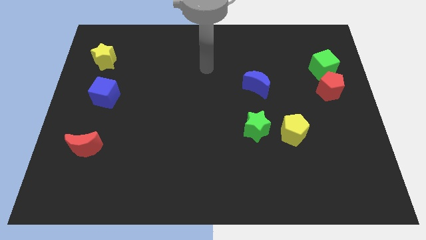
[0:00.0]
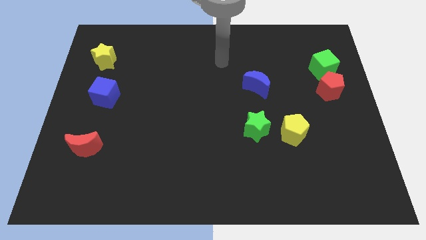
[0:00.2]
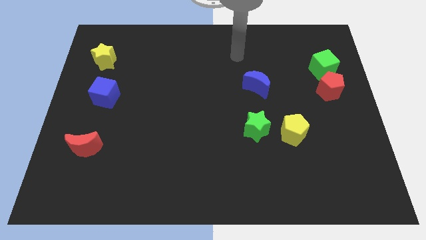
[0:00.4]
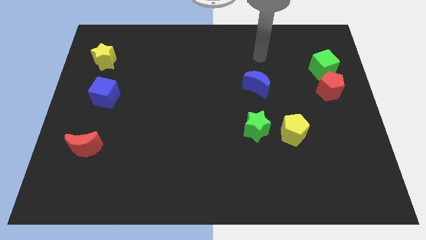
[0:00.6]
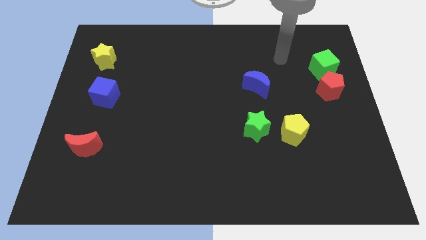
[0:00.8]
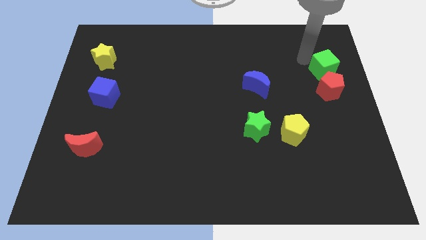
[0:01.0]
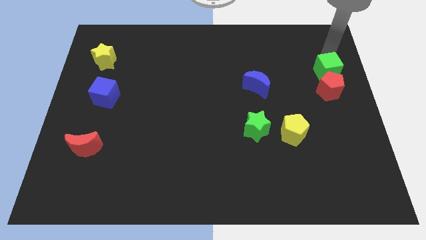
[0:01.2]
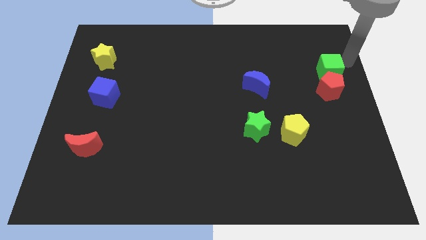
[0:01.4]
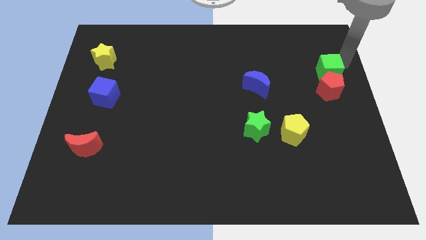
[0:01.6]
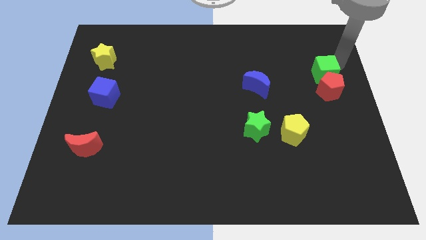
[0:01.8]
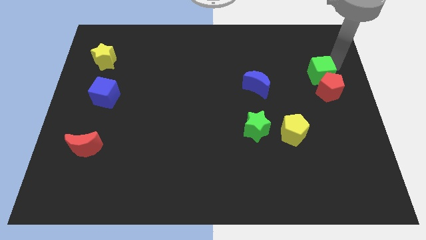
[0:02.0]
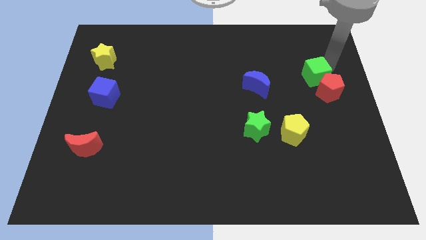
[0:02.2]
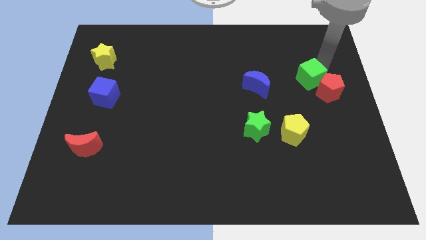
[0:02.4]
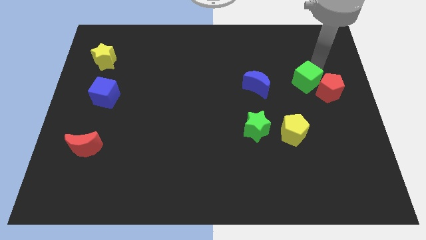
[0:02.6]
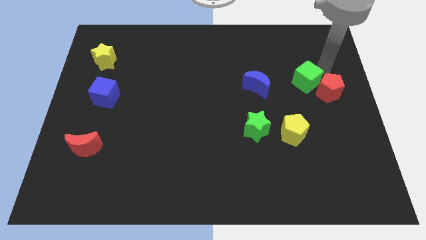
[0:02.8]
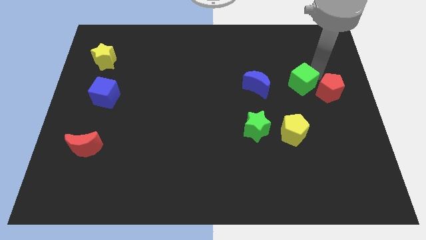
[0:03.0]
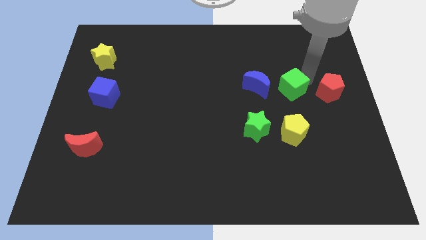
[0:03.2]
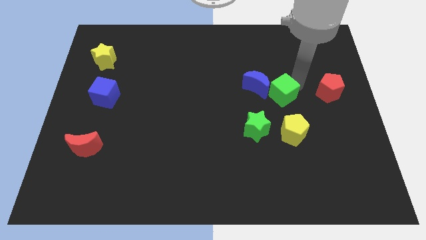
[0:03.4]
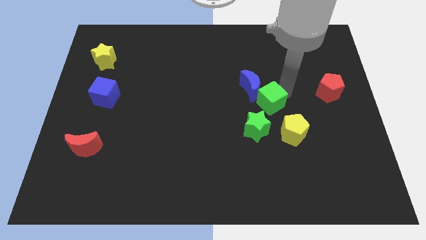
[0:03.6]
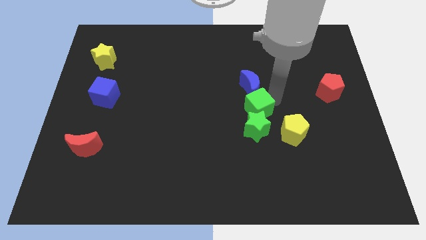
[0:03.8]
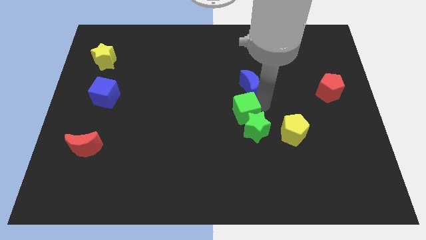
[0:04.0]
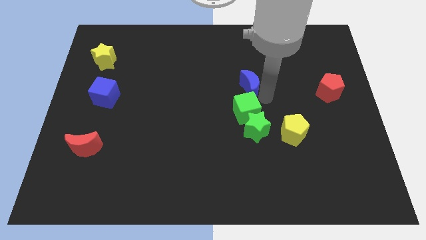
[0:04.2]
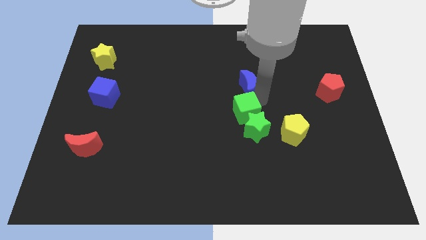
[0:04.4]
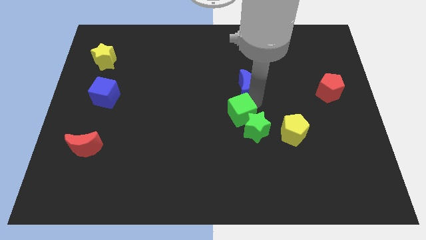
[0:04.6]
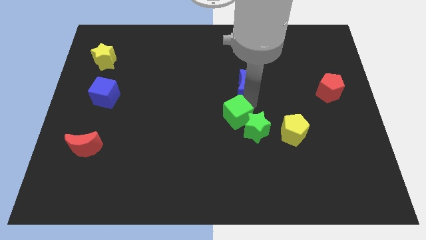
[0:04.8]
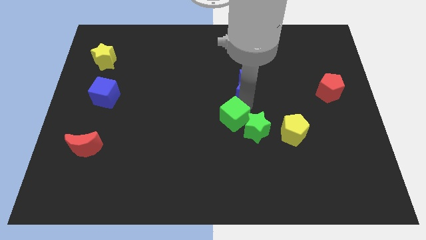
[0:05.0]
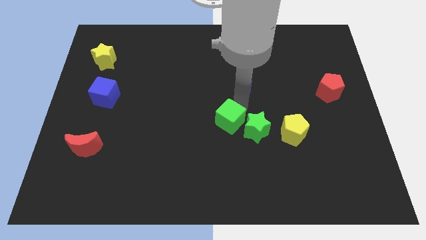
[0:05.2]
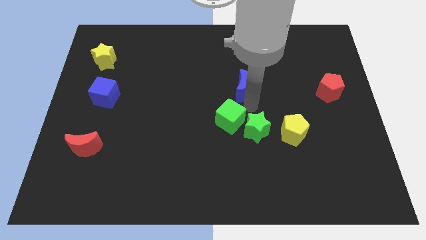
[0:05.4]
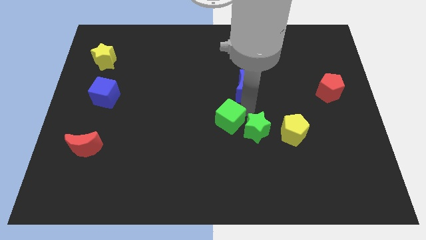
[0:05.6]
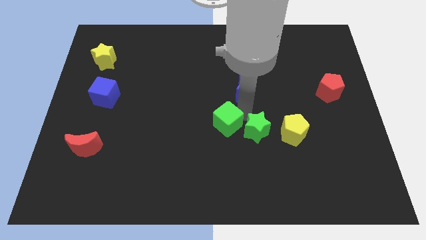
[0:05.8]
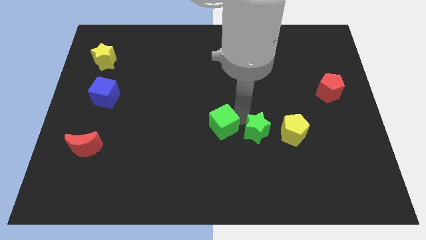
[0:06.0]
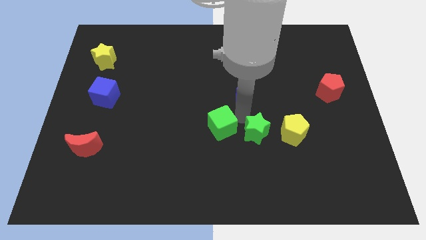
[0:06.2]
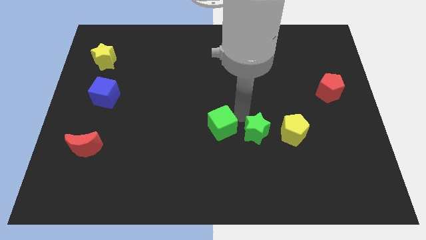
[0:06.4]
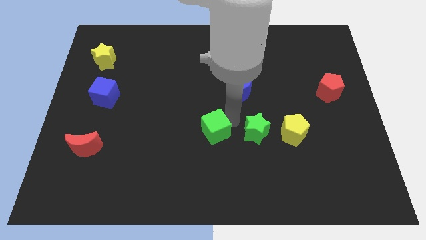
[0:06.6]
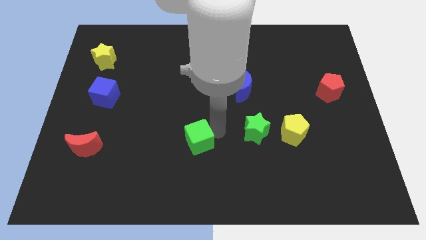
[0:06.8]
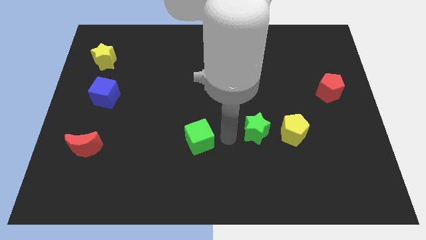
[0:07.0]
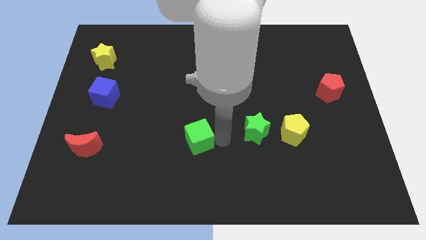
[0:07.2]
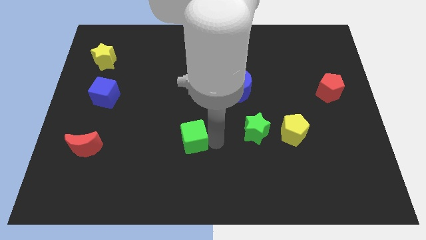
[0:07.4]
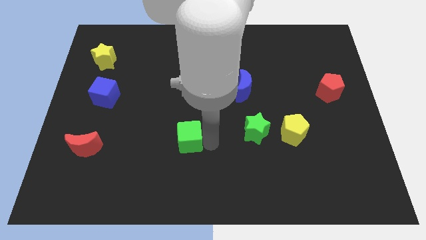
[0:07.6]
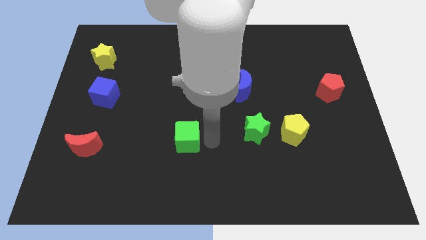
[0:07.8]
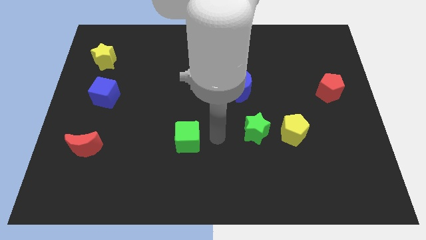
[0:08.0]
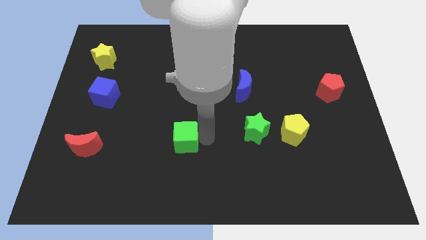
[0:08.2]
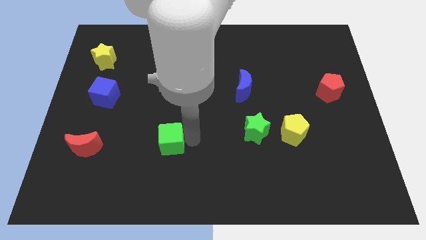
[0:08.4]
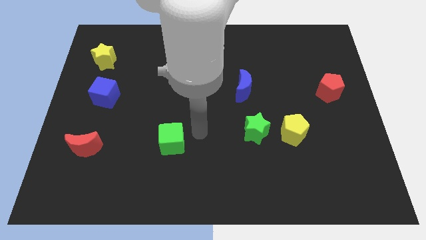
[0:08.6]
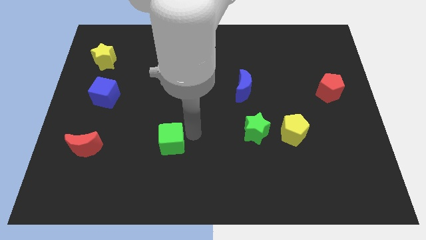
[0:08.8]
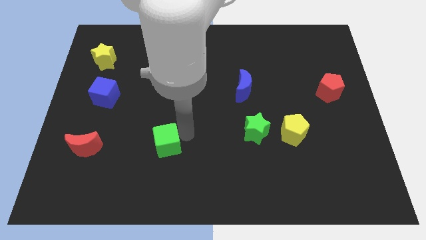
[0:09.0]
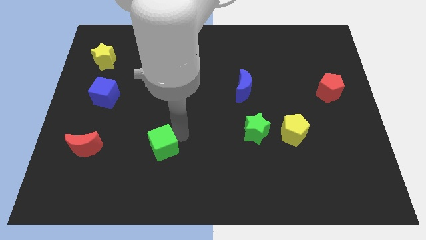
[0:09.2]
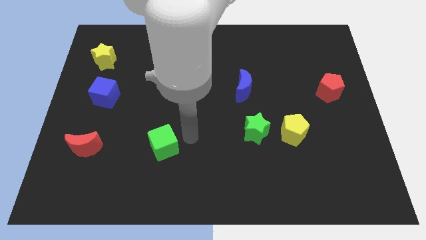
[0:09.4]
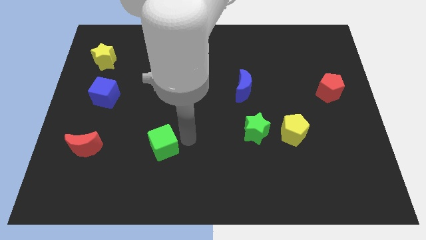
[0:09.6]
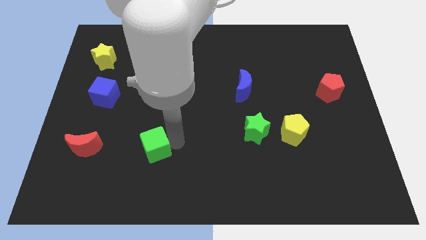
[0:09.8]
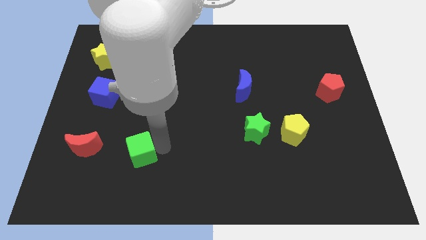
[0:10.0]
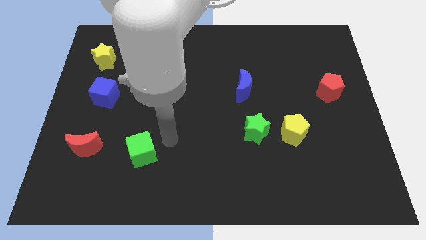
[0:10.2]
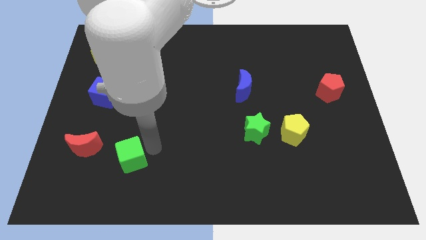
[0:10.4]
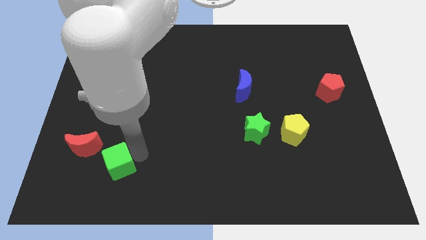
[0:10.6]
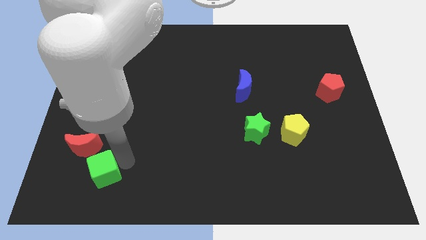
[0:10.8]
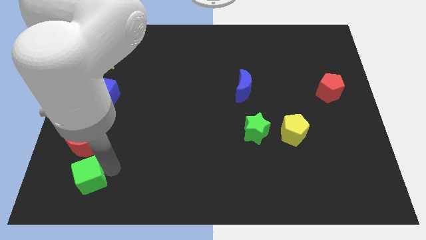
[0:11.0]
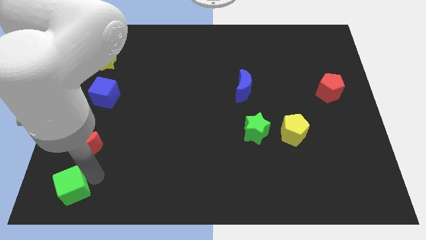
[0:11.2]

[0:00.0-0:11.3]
put the green cube to the bottom left corner

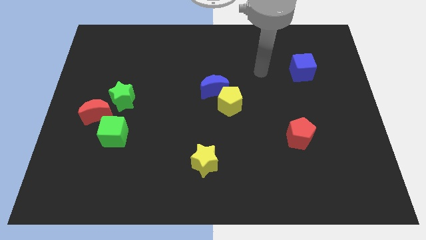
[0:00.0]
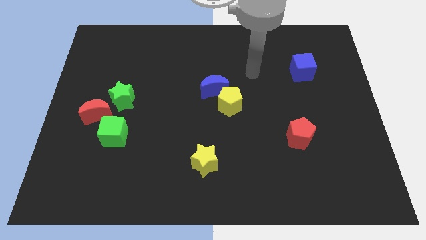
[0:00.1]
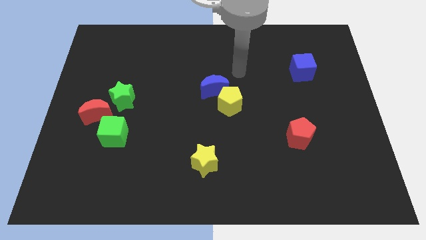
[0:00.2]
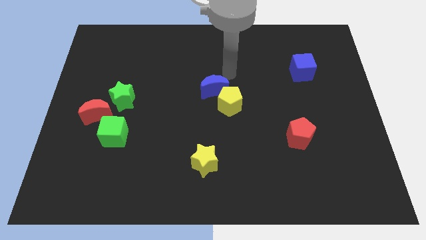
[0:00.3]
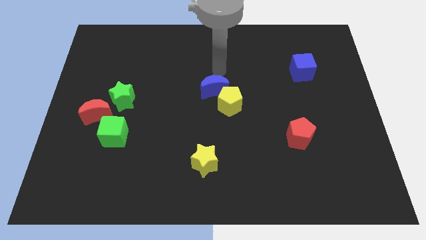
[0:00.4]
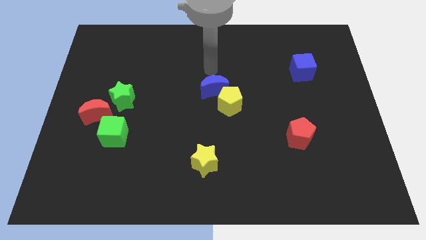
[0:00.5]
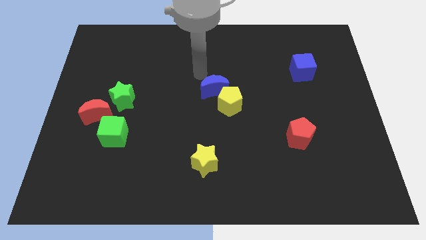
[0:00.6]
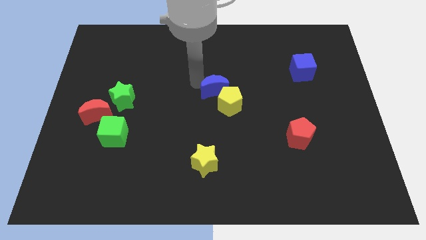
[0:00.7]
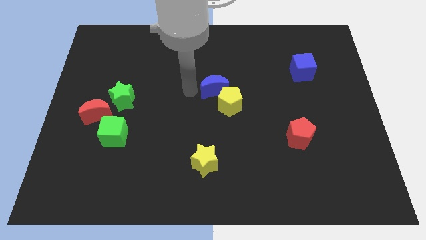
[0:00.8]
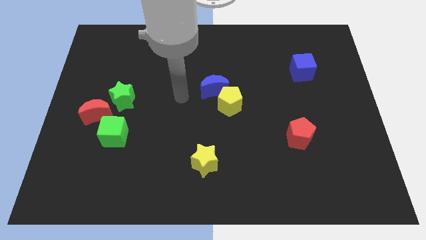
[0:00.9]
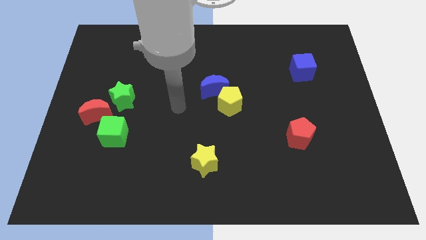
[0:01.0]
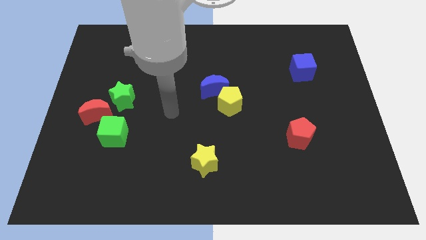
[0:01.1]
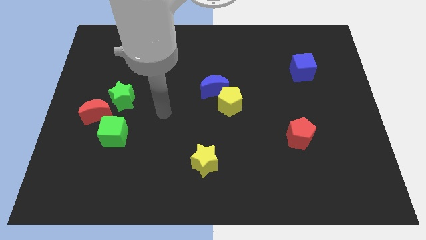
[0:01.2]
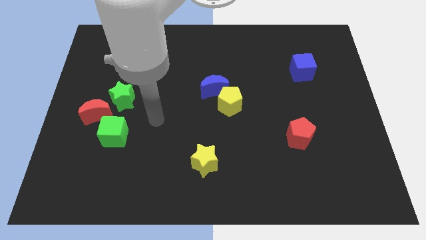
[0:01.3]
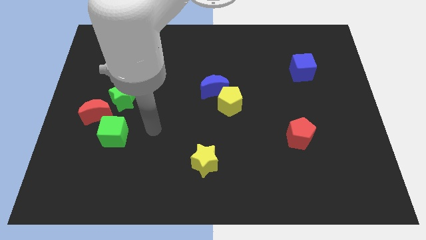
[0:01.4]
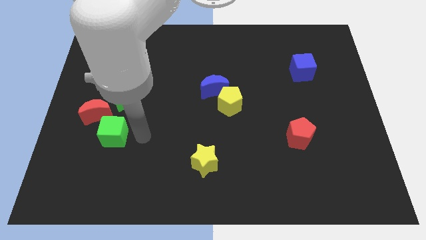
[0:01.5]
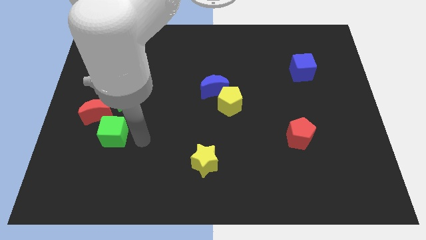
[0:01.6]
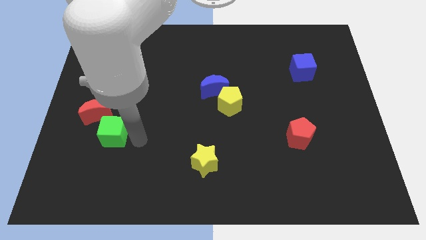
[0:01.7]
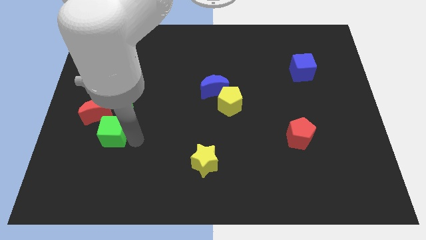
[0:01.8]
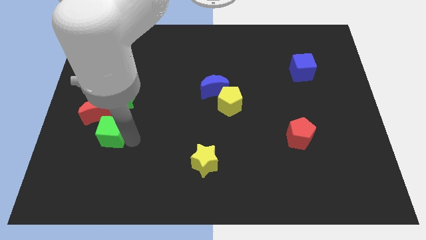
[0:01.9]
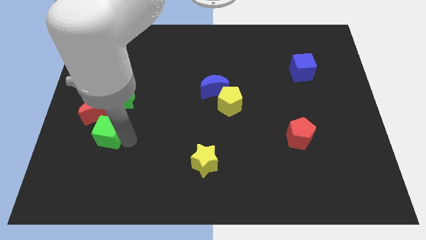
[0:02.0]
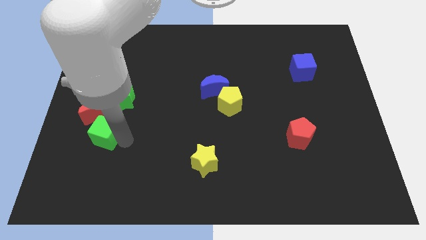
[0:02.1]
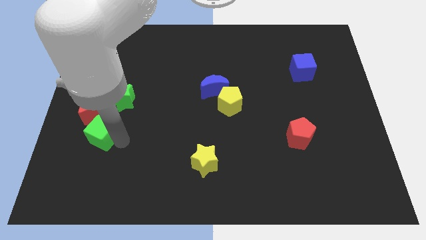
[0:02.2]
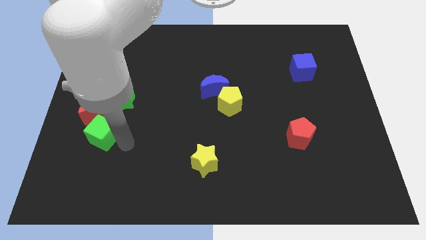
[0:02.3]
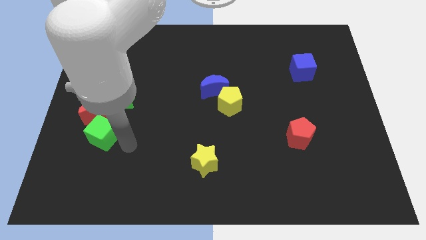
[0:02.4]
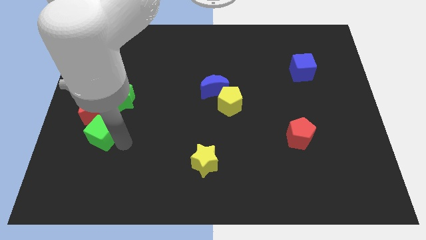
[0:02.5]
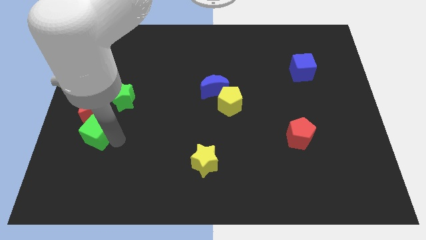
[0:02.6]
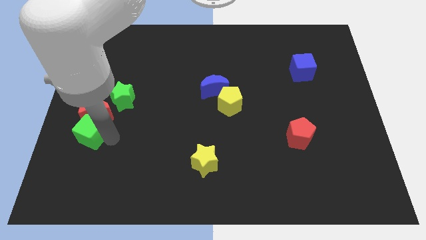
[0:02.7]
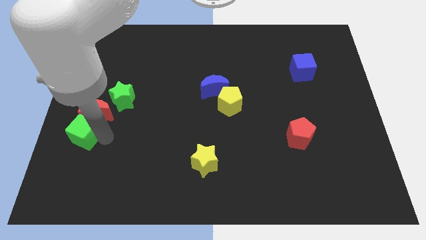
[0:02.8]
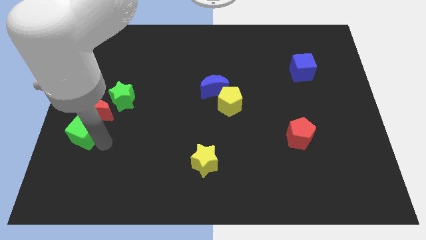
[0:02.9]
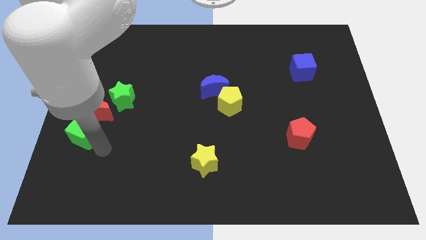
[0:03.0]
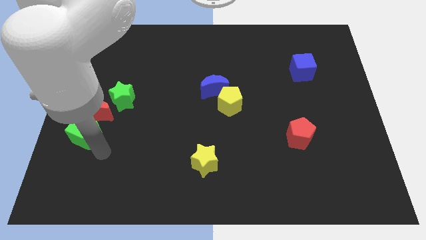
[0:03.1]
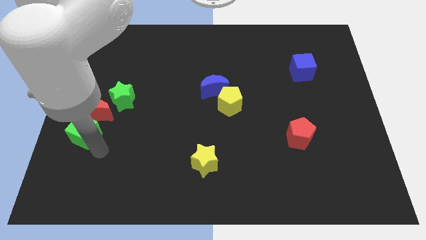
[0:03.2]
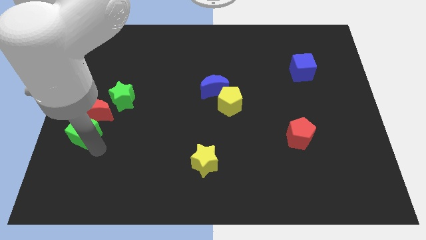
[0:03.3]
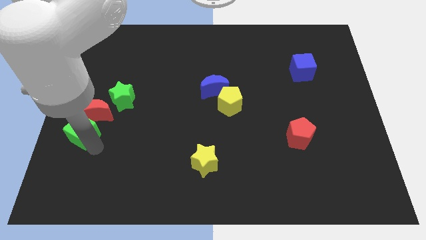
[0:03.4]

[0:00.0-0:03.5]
move the green cube to the center left
